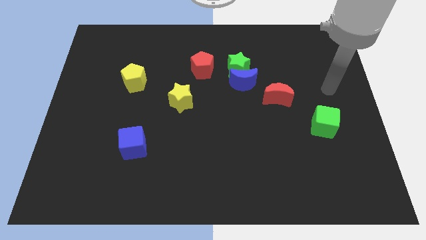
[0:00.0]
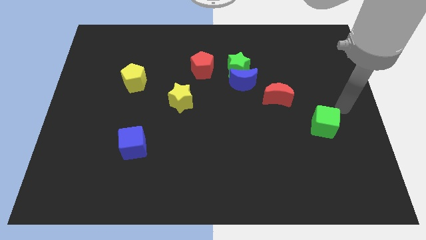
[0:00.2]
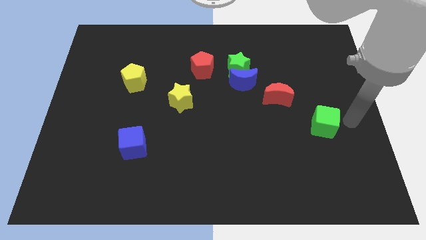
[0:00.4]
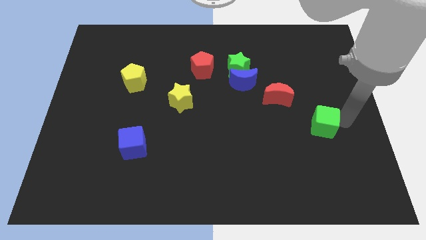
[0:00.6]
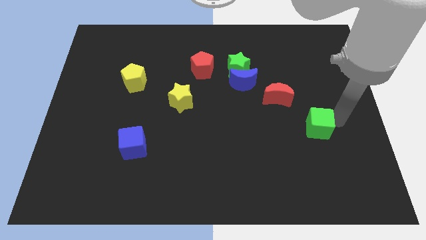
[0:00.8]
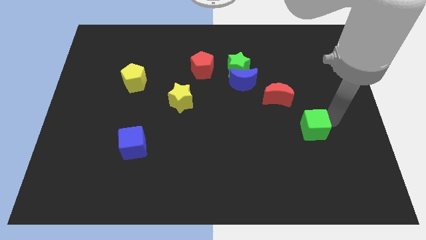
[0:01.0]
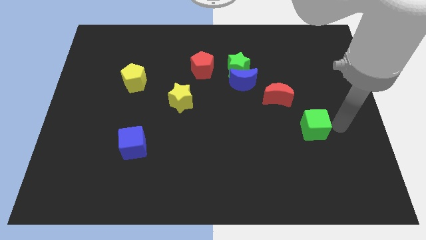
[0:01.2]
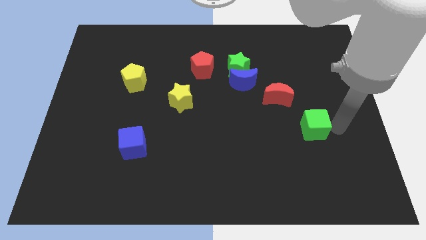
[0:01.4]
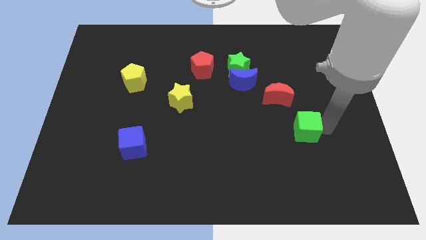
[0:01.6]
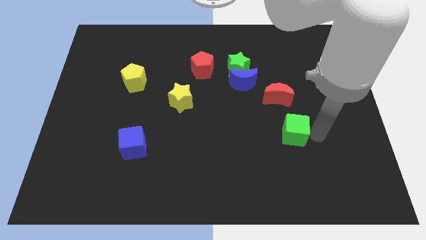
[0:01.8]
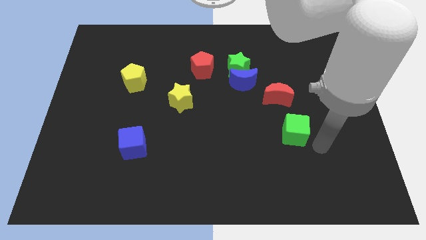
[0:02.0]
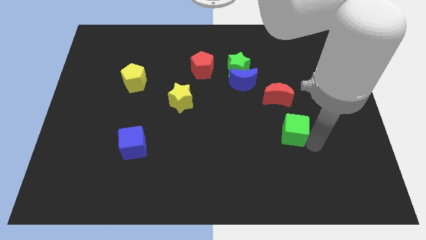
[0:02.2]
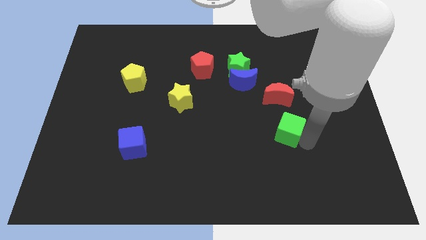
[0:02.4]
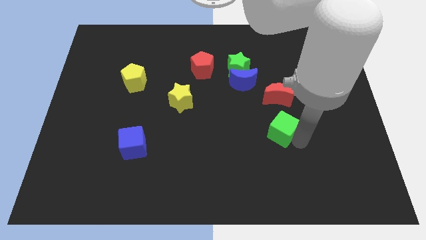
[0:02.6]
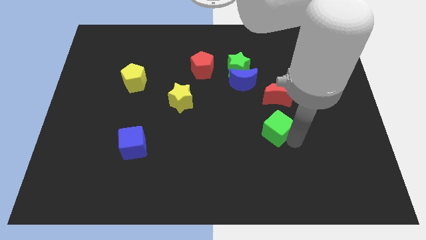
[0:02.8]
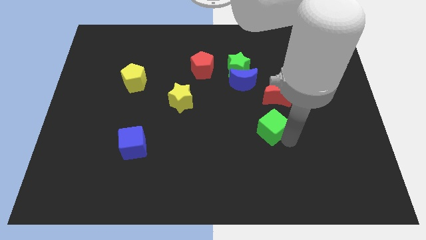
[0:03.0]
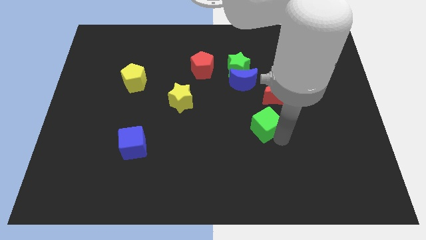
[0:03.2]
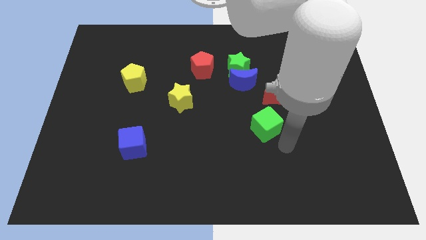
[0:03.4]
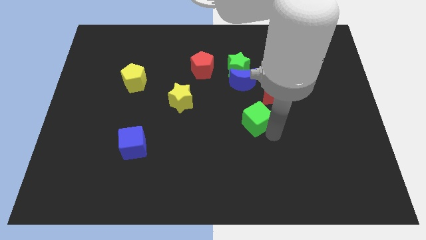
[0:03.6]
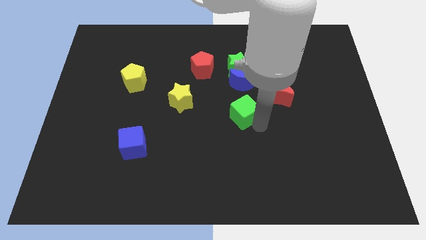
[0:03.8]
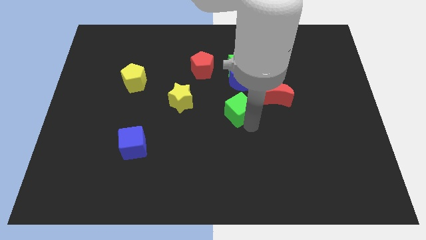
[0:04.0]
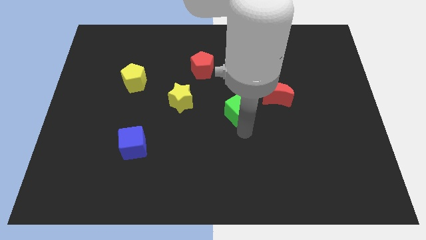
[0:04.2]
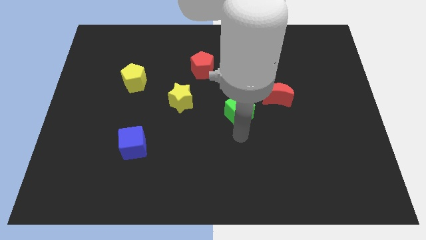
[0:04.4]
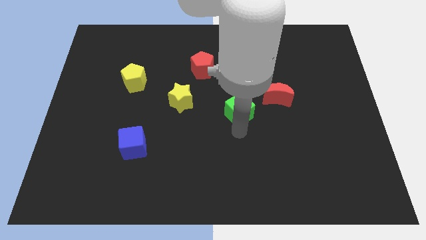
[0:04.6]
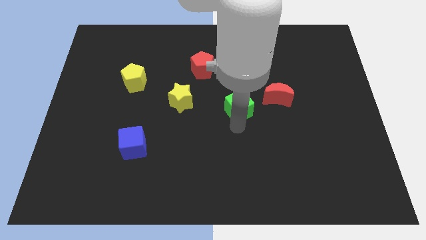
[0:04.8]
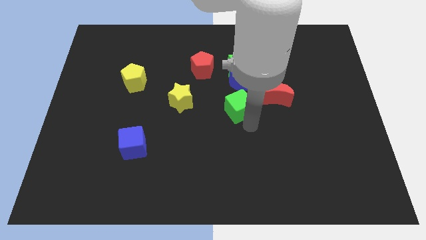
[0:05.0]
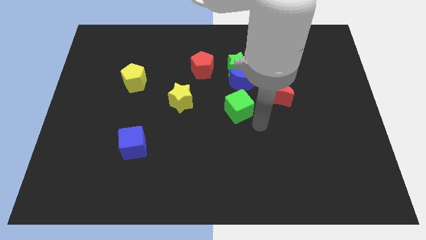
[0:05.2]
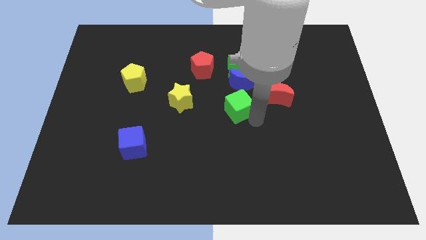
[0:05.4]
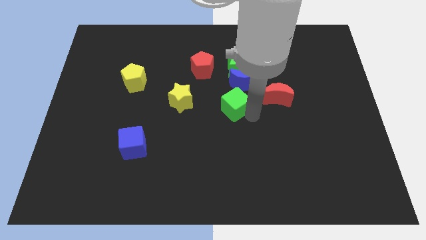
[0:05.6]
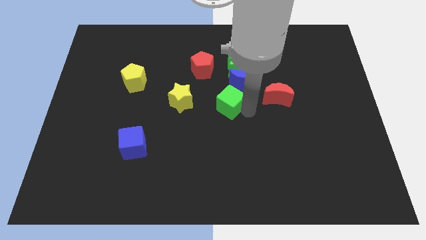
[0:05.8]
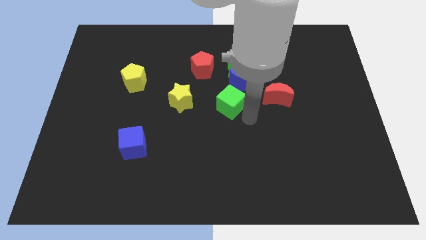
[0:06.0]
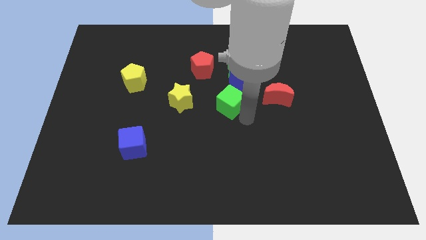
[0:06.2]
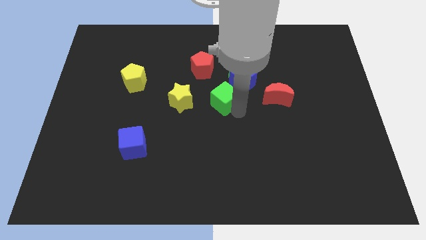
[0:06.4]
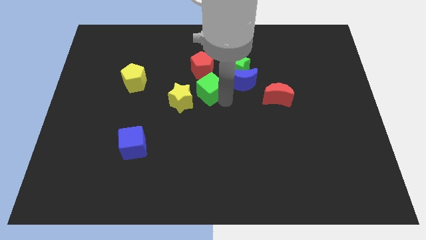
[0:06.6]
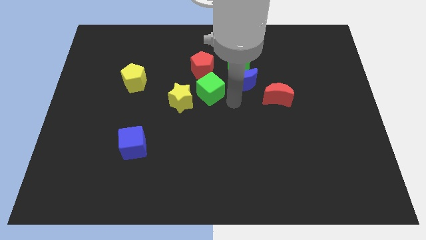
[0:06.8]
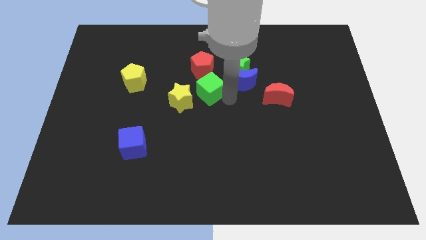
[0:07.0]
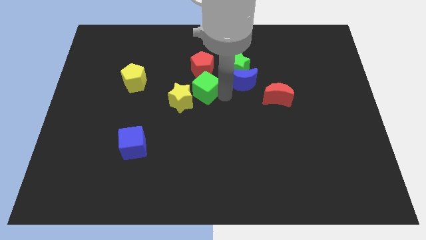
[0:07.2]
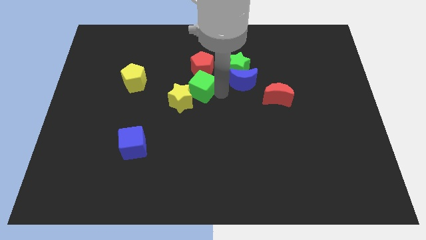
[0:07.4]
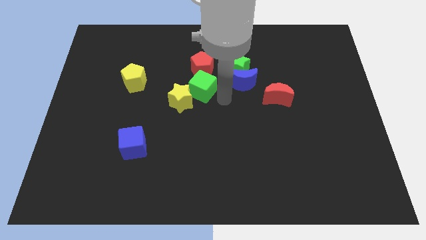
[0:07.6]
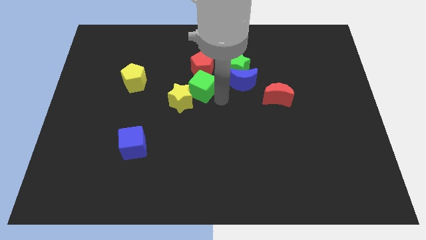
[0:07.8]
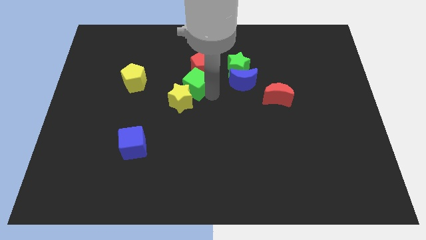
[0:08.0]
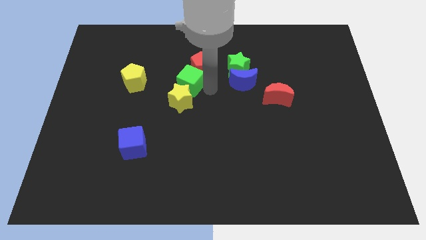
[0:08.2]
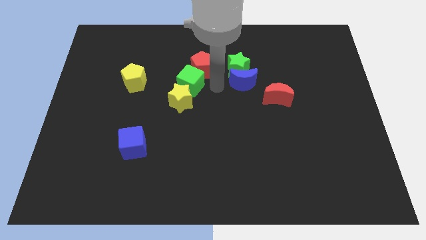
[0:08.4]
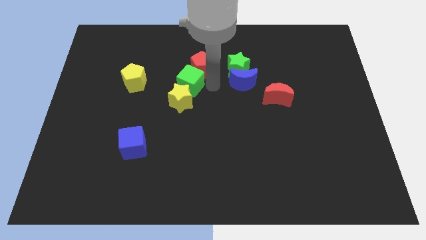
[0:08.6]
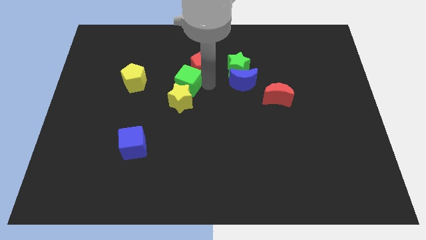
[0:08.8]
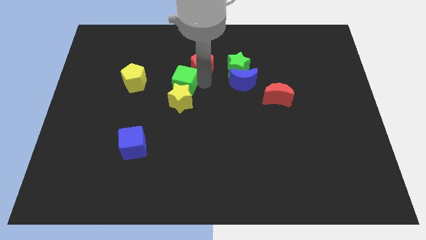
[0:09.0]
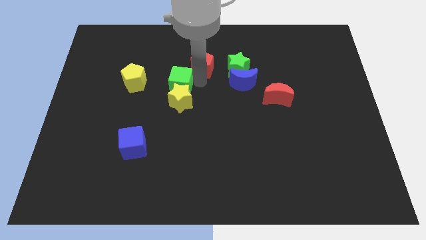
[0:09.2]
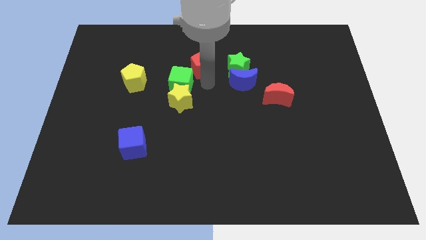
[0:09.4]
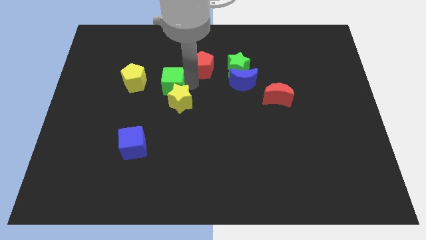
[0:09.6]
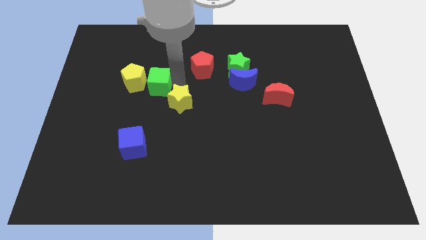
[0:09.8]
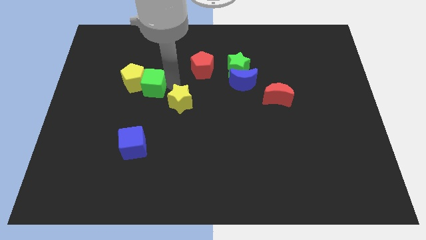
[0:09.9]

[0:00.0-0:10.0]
slide the green cube towards the yellow pentagon

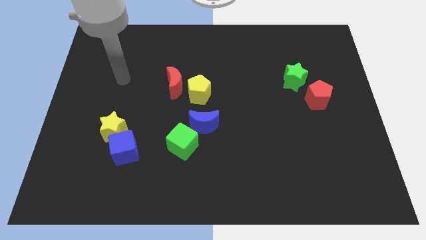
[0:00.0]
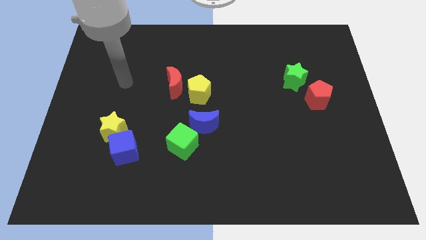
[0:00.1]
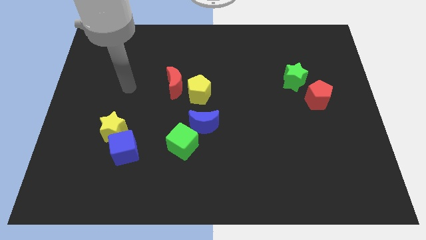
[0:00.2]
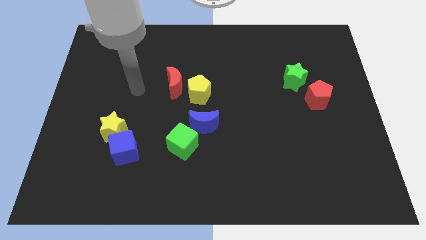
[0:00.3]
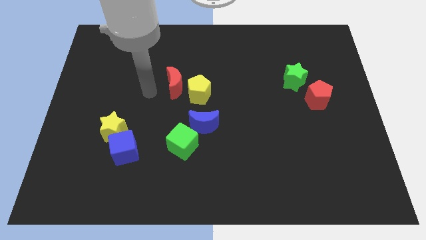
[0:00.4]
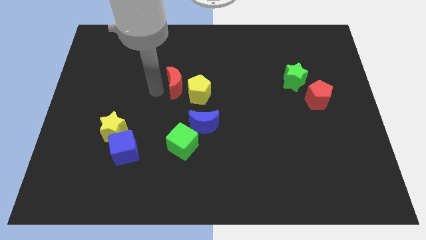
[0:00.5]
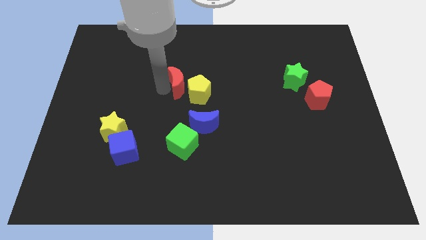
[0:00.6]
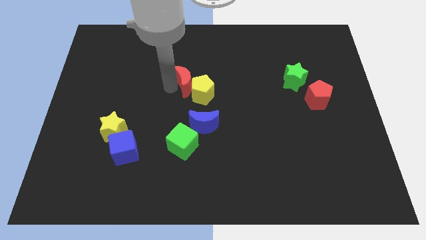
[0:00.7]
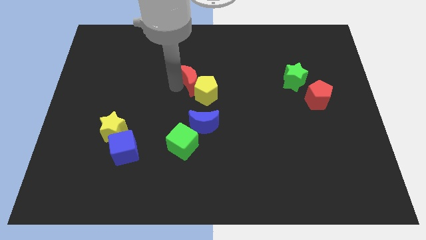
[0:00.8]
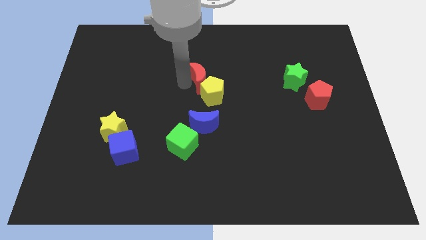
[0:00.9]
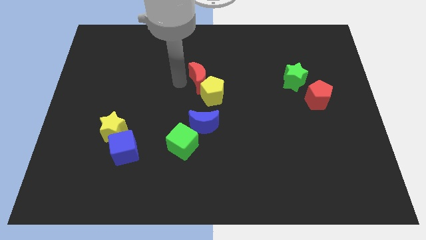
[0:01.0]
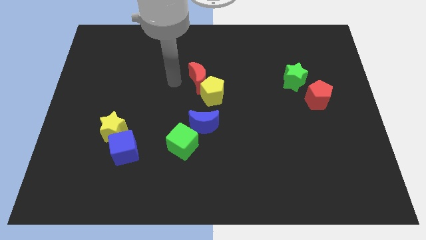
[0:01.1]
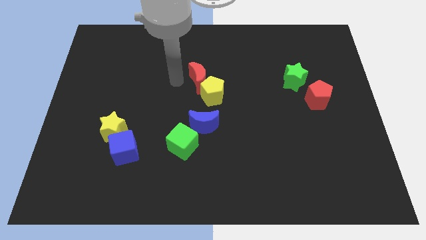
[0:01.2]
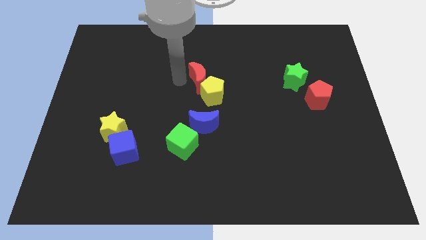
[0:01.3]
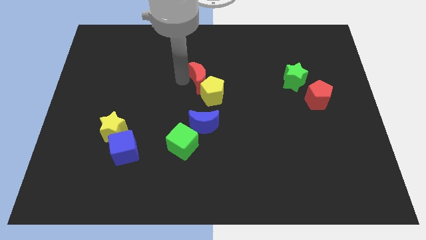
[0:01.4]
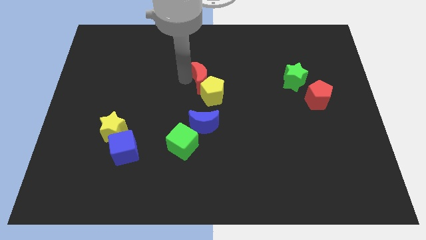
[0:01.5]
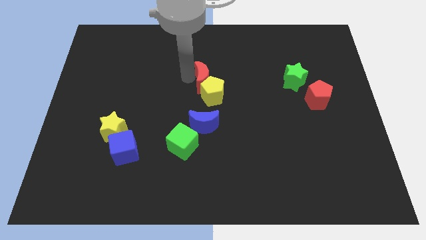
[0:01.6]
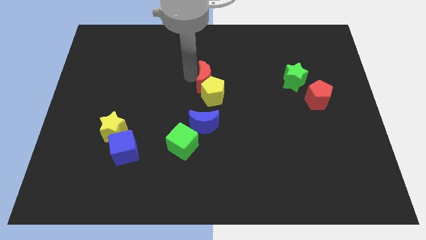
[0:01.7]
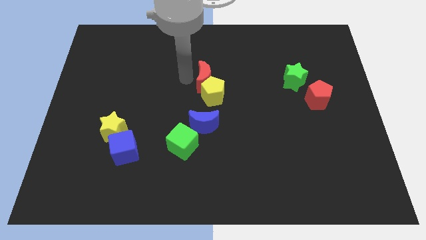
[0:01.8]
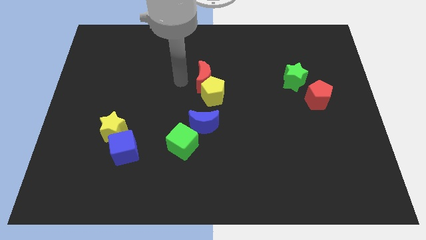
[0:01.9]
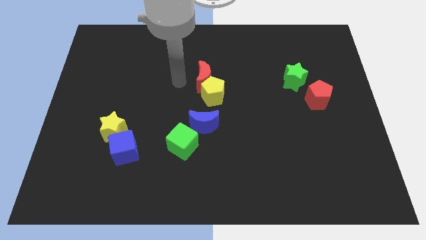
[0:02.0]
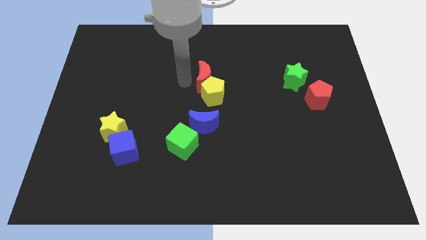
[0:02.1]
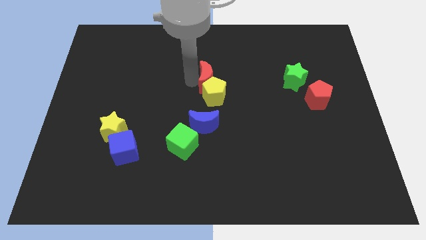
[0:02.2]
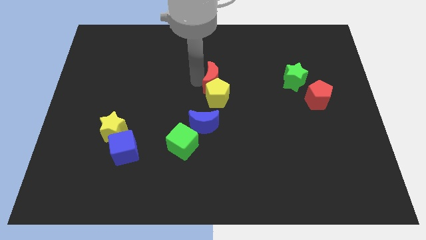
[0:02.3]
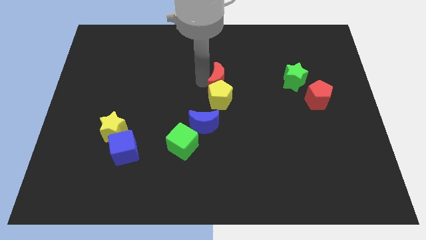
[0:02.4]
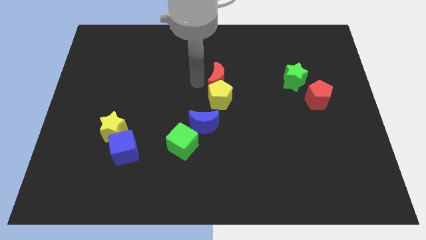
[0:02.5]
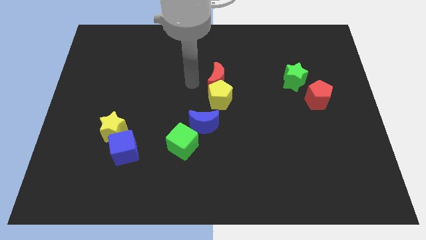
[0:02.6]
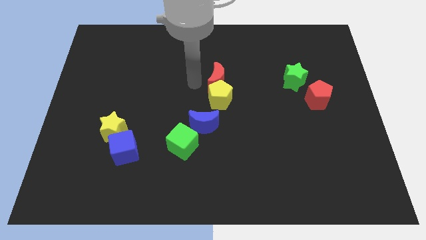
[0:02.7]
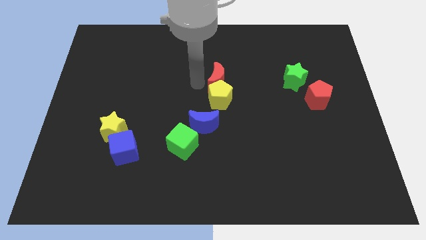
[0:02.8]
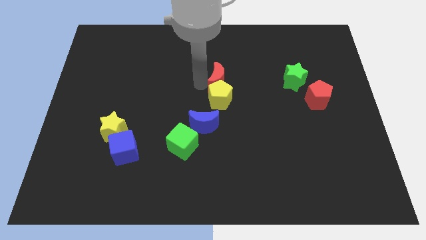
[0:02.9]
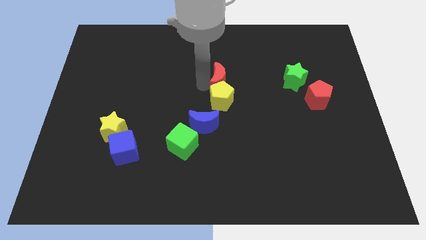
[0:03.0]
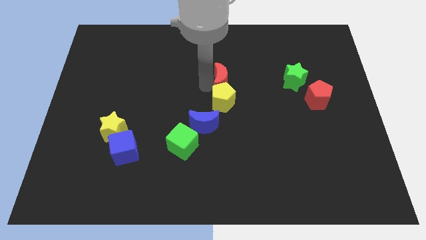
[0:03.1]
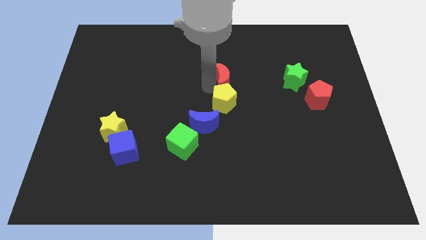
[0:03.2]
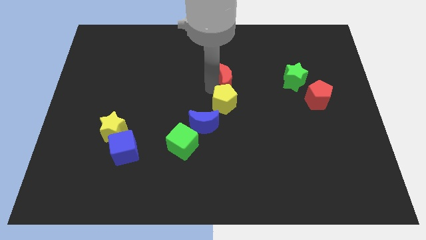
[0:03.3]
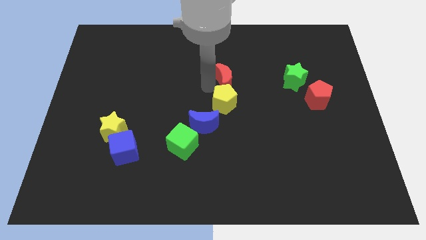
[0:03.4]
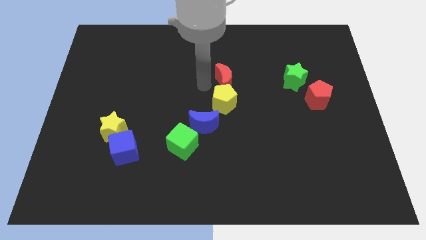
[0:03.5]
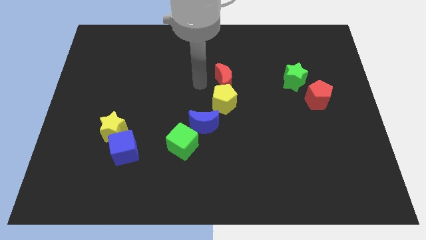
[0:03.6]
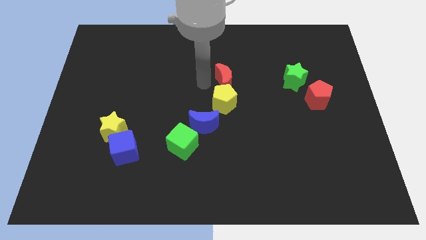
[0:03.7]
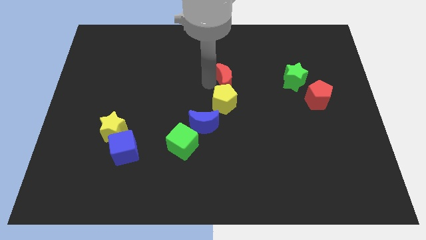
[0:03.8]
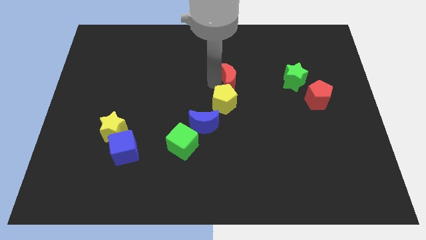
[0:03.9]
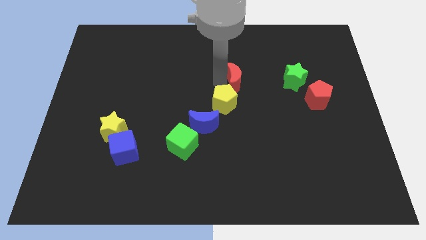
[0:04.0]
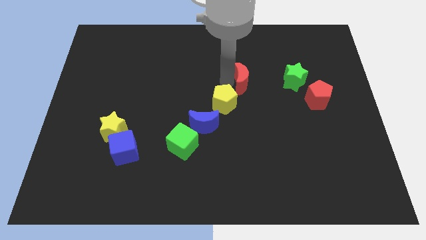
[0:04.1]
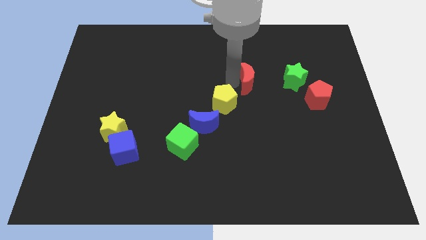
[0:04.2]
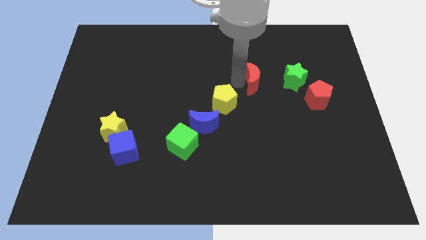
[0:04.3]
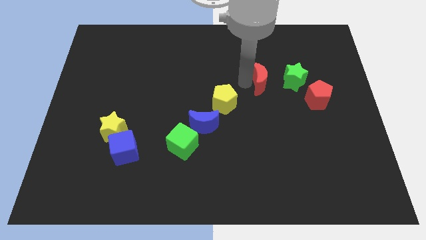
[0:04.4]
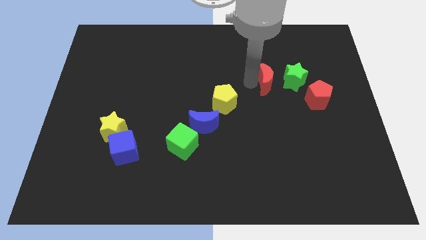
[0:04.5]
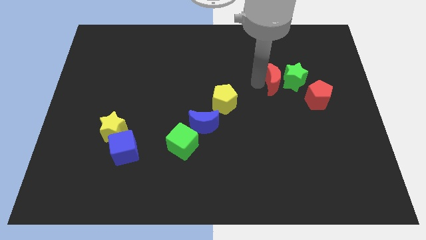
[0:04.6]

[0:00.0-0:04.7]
push the red moon next to the green star
